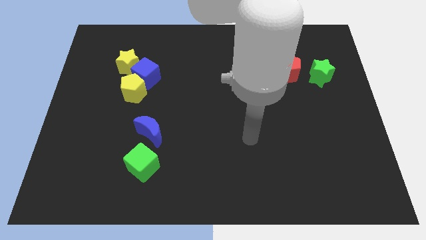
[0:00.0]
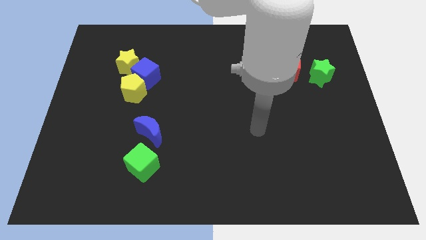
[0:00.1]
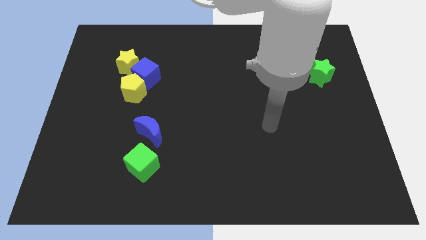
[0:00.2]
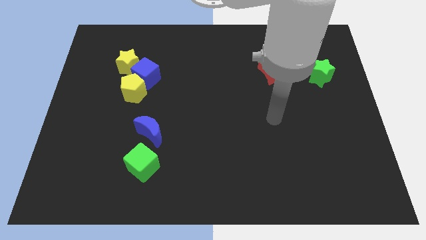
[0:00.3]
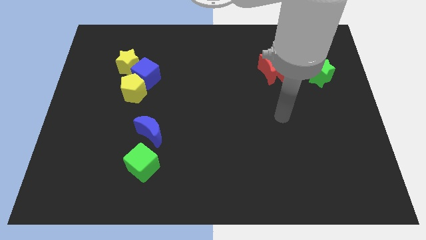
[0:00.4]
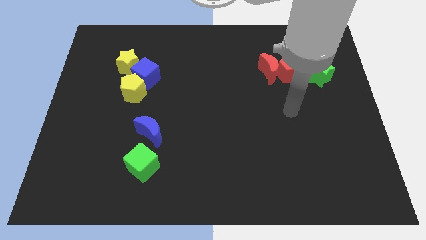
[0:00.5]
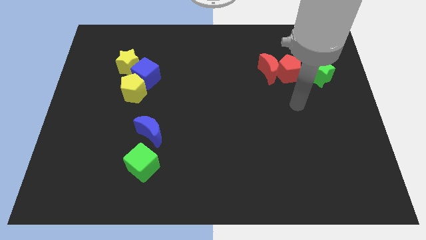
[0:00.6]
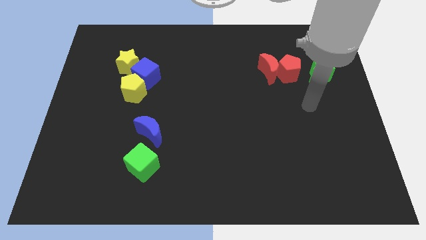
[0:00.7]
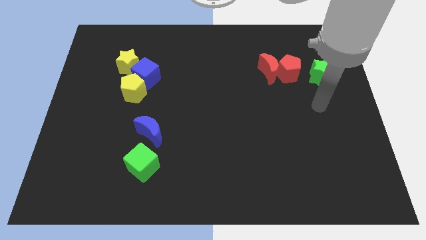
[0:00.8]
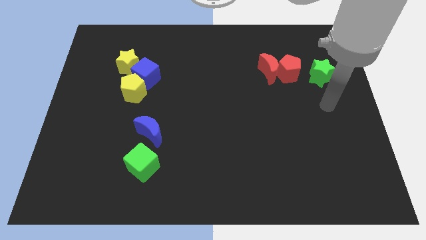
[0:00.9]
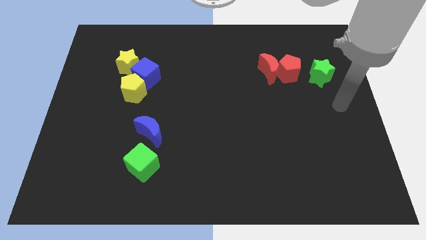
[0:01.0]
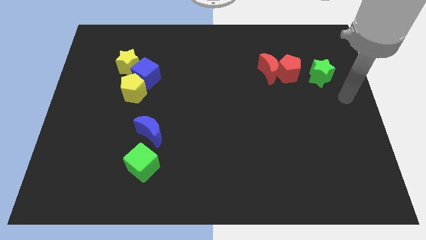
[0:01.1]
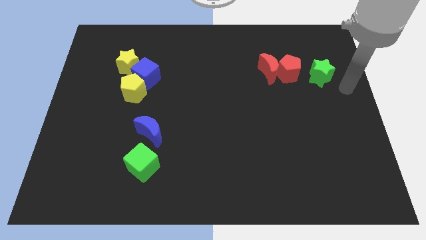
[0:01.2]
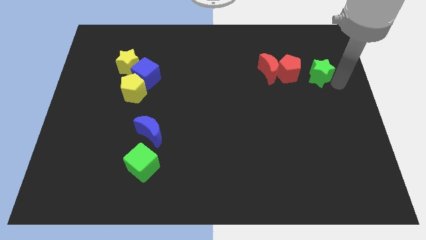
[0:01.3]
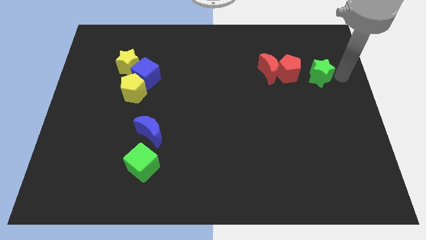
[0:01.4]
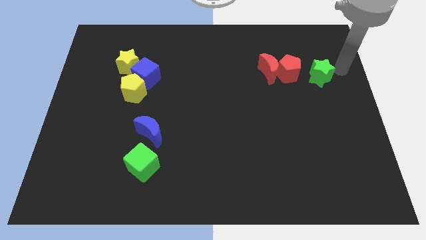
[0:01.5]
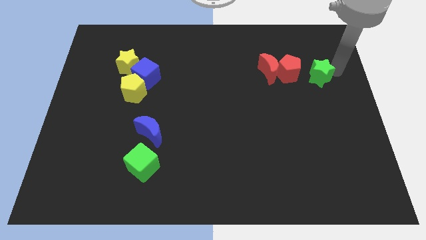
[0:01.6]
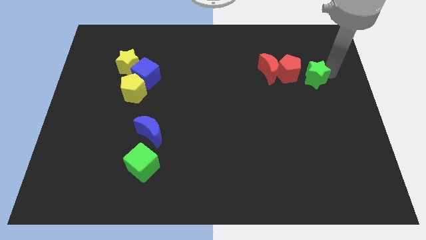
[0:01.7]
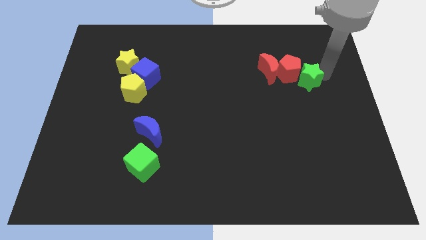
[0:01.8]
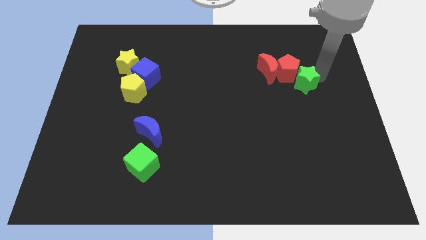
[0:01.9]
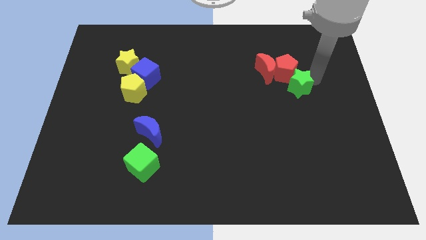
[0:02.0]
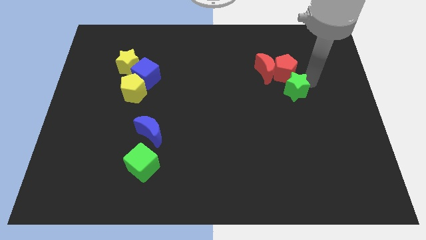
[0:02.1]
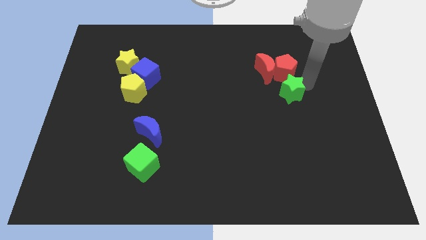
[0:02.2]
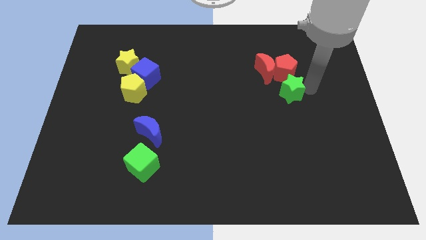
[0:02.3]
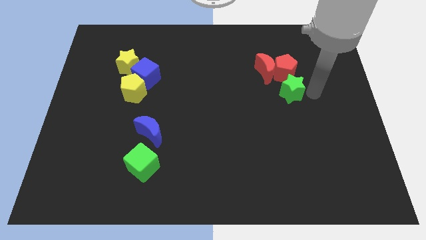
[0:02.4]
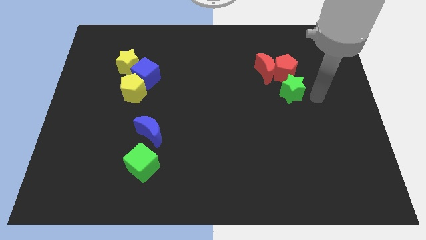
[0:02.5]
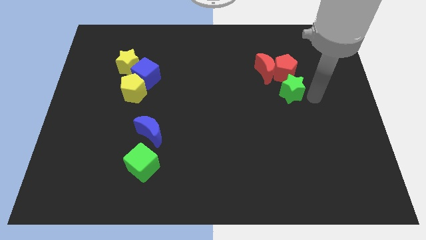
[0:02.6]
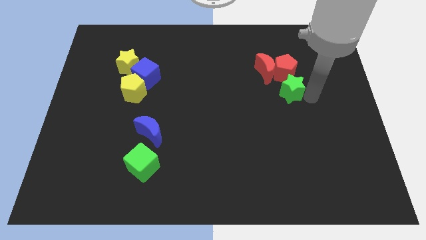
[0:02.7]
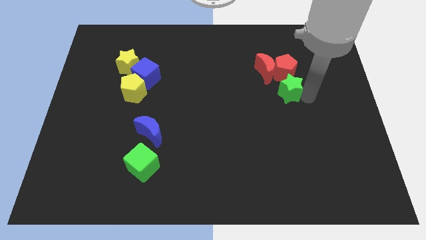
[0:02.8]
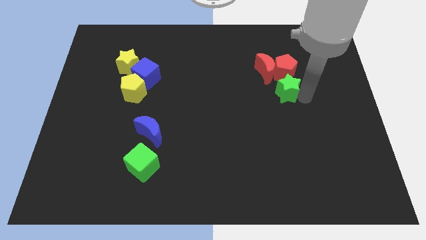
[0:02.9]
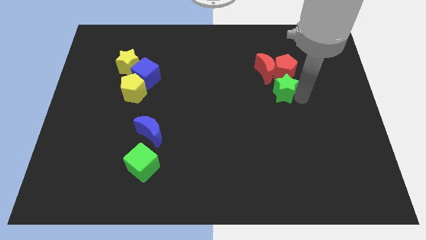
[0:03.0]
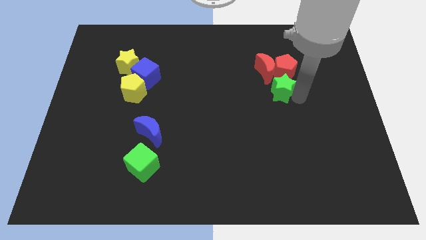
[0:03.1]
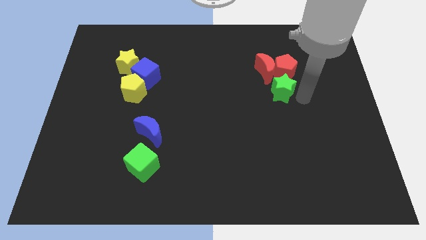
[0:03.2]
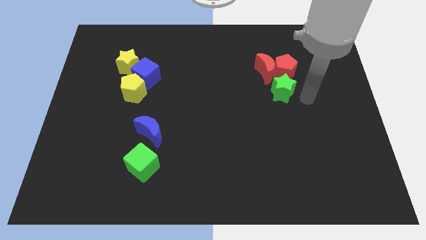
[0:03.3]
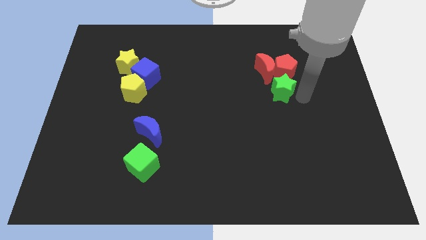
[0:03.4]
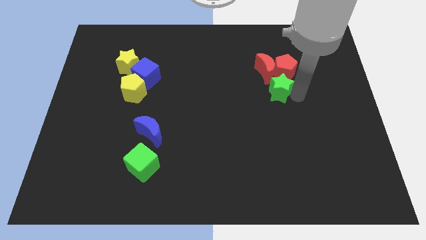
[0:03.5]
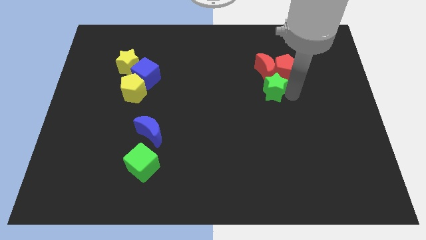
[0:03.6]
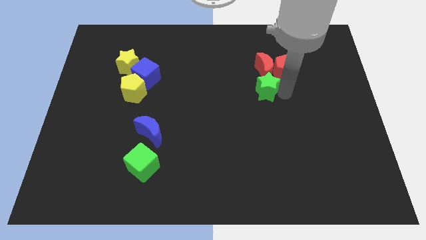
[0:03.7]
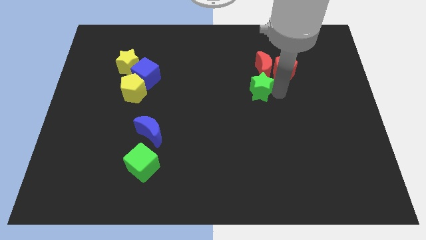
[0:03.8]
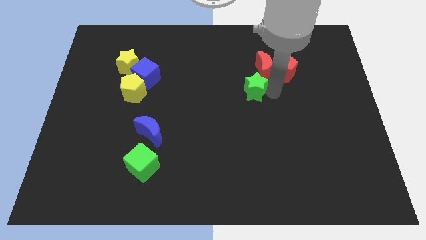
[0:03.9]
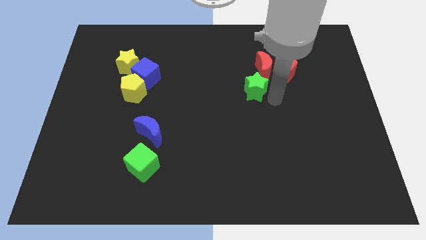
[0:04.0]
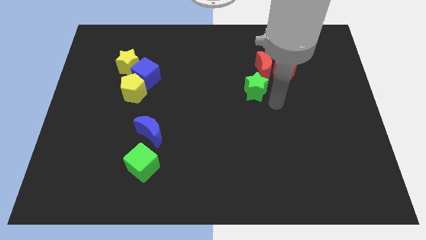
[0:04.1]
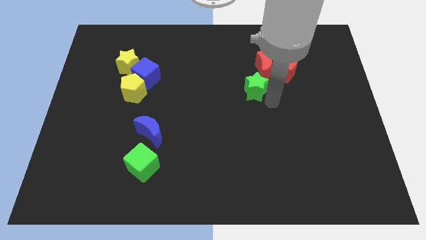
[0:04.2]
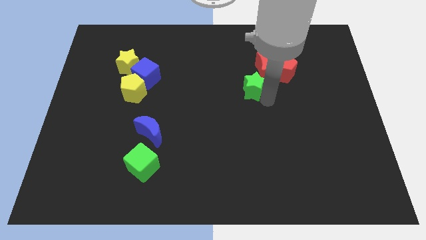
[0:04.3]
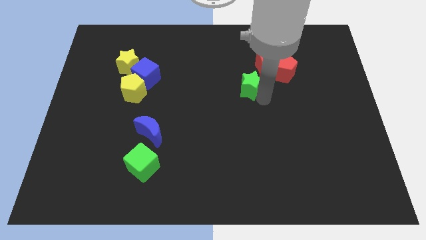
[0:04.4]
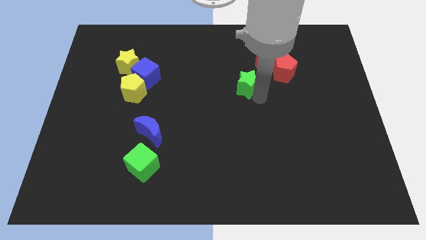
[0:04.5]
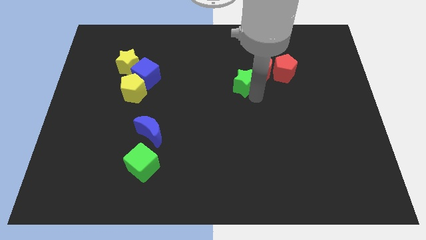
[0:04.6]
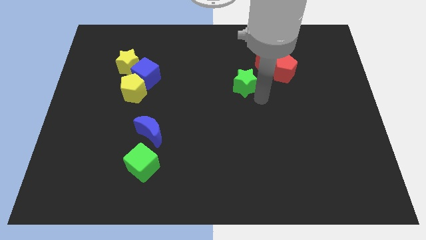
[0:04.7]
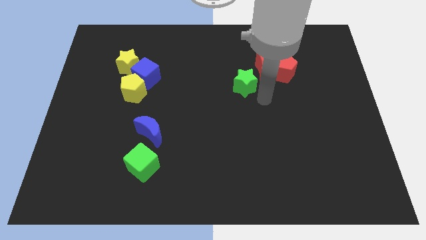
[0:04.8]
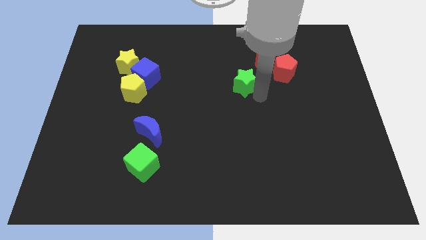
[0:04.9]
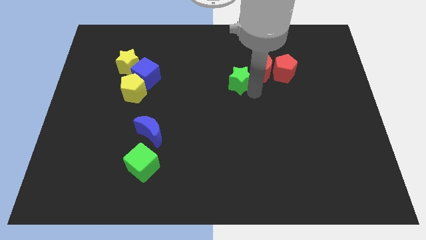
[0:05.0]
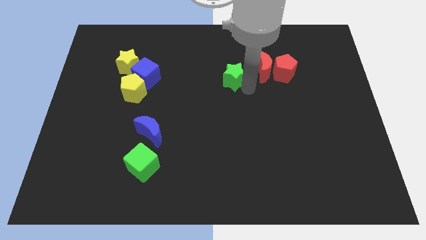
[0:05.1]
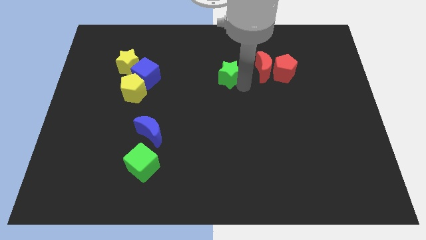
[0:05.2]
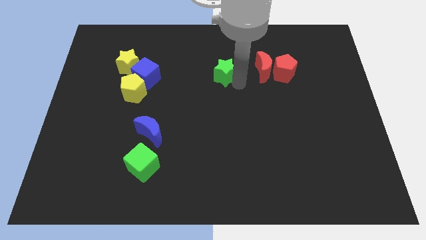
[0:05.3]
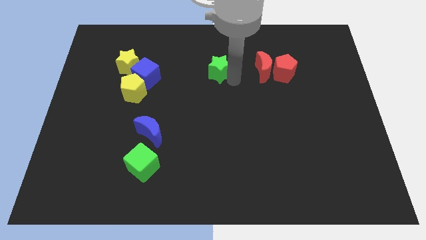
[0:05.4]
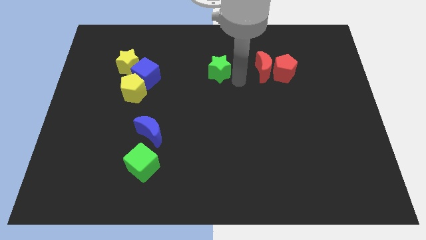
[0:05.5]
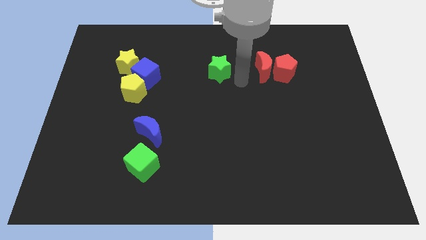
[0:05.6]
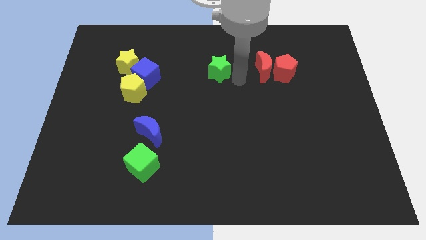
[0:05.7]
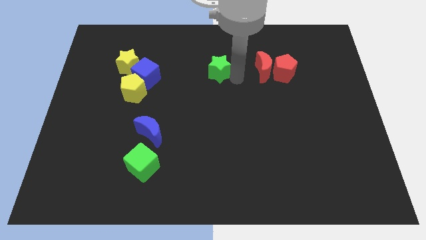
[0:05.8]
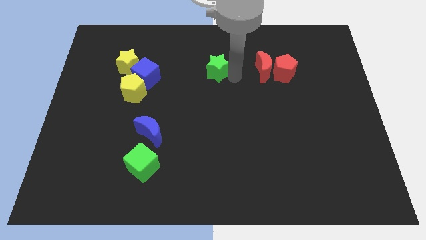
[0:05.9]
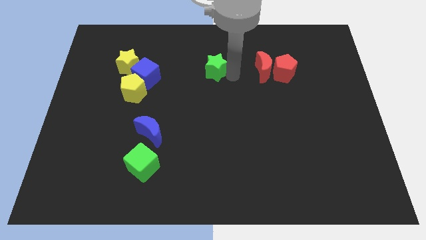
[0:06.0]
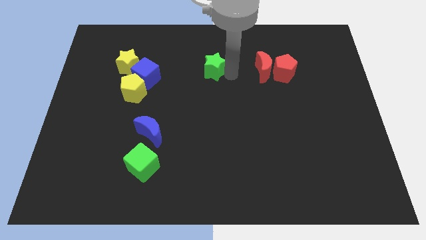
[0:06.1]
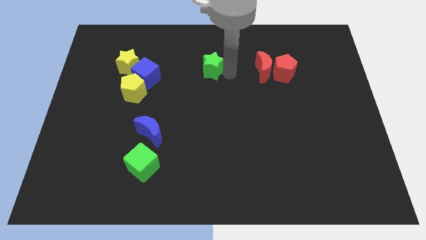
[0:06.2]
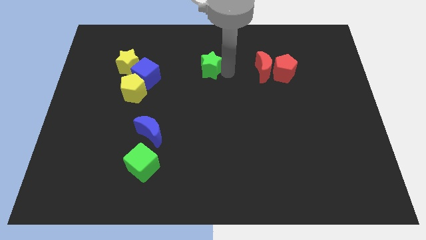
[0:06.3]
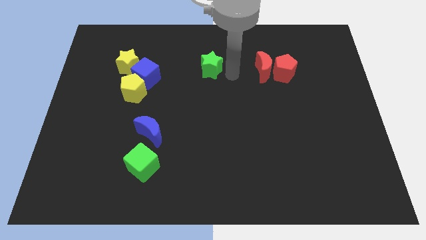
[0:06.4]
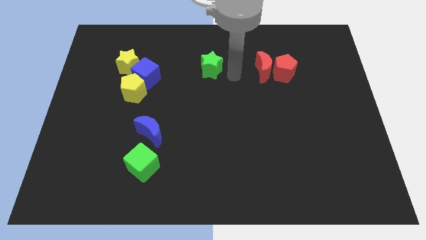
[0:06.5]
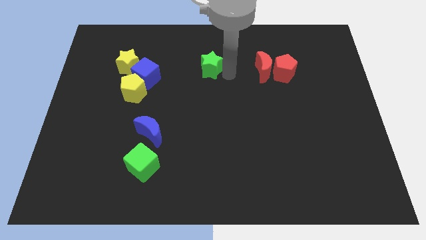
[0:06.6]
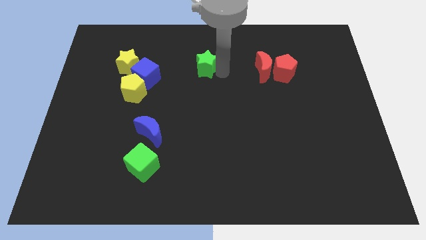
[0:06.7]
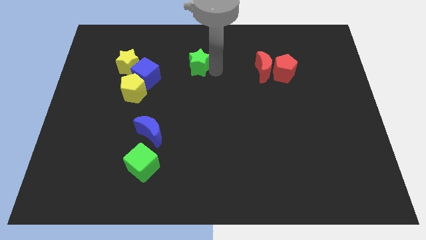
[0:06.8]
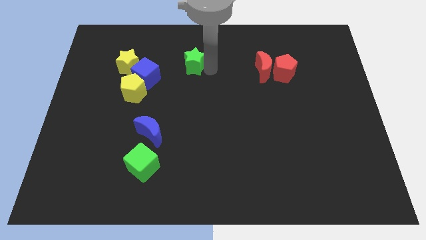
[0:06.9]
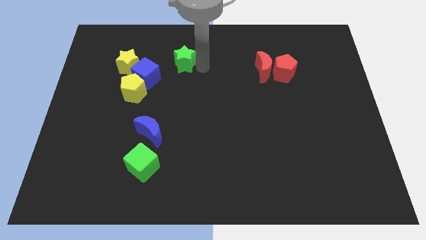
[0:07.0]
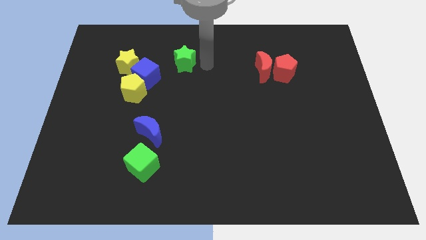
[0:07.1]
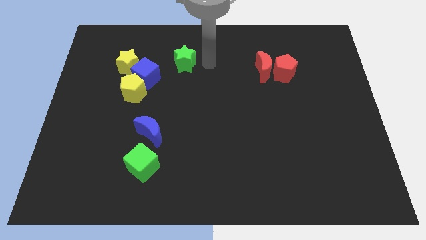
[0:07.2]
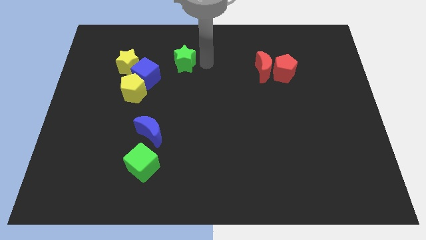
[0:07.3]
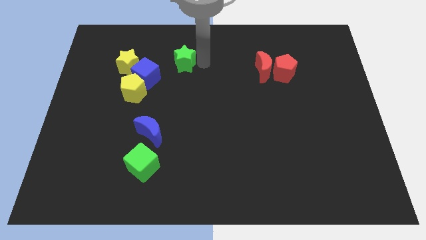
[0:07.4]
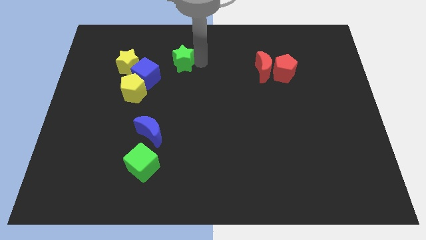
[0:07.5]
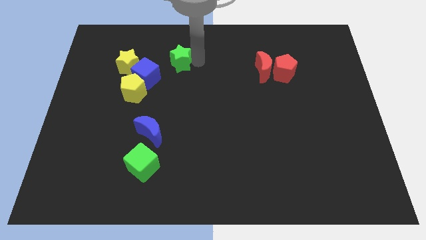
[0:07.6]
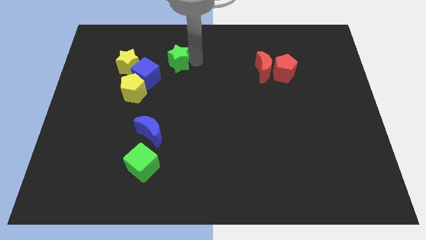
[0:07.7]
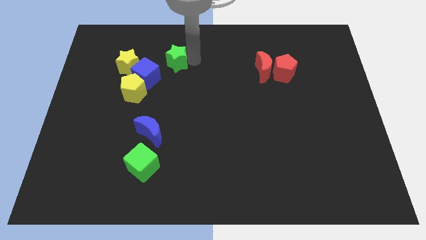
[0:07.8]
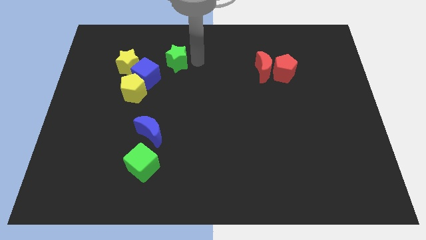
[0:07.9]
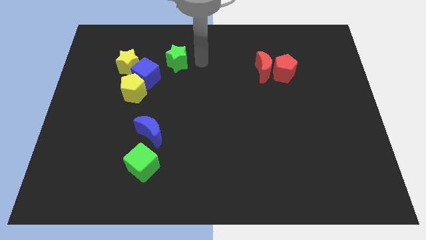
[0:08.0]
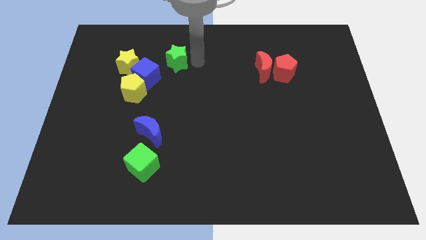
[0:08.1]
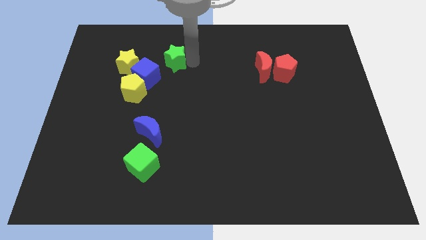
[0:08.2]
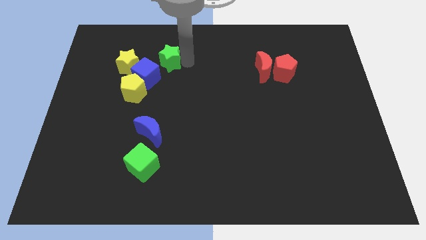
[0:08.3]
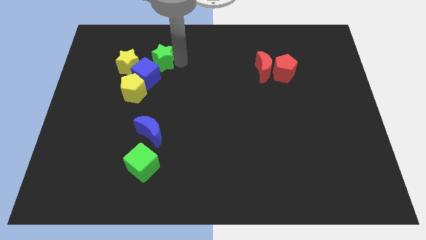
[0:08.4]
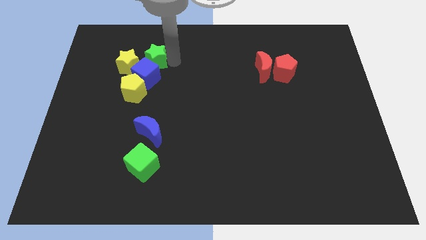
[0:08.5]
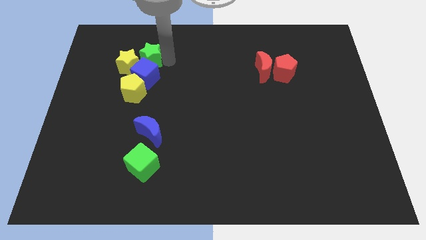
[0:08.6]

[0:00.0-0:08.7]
slide the green star close to the yellow star
